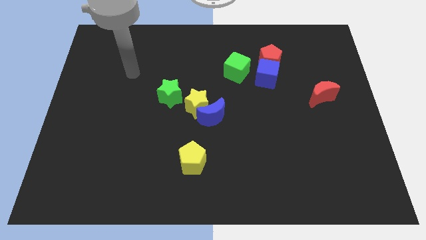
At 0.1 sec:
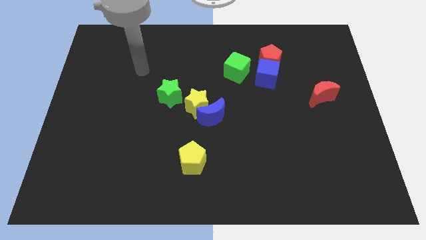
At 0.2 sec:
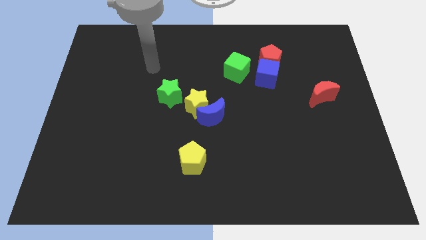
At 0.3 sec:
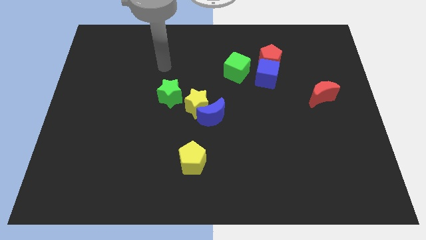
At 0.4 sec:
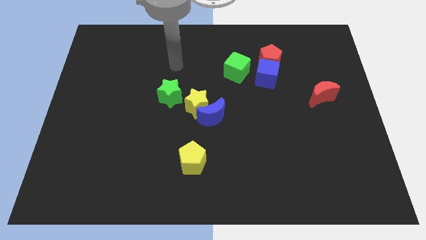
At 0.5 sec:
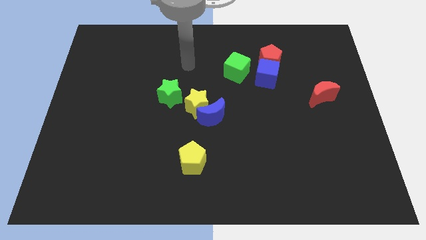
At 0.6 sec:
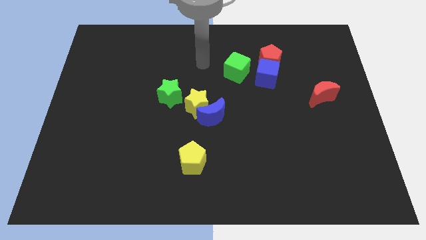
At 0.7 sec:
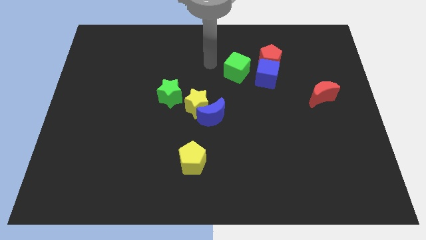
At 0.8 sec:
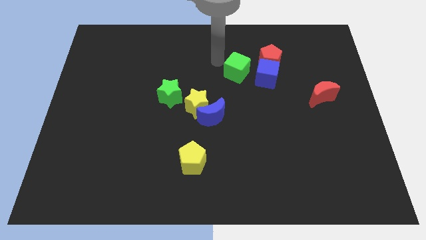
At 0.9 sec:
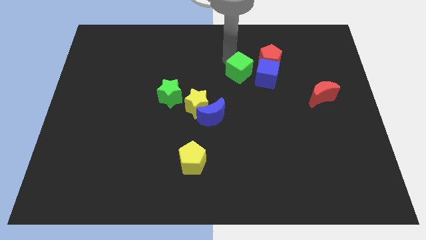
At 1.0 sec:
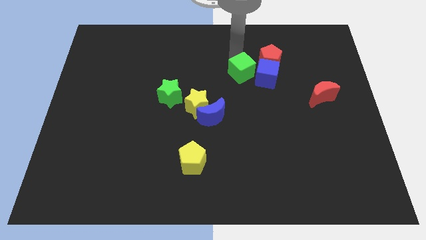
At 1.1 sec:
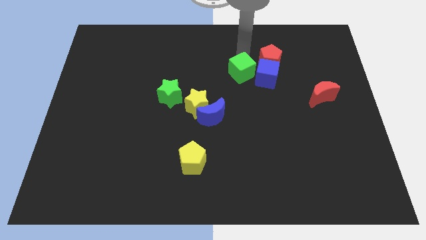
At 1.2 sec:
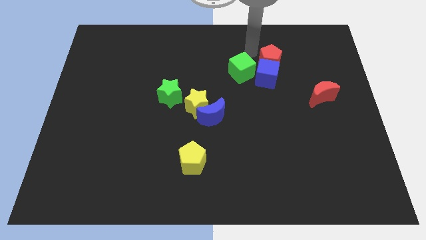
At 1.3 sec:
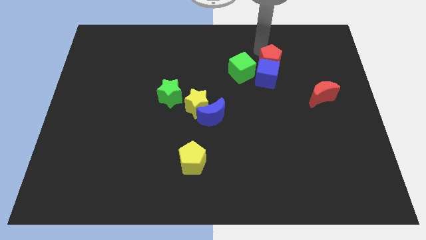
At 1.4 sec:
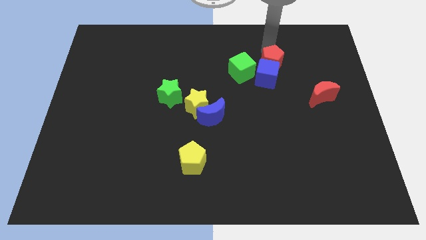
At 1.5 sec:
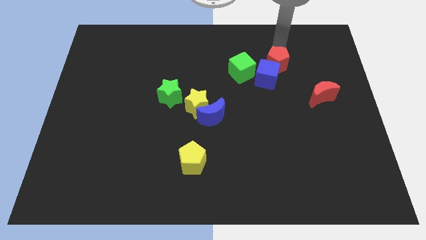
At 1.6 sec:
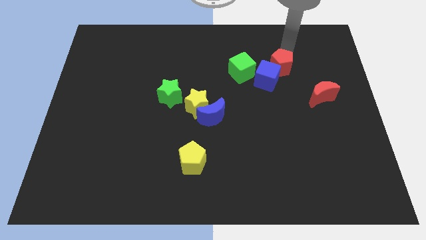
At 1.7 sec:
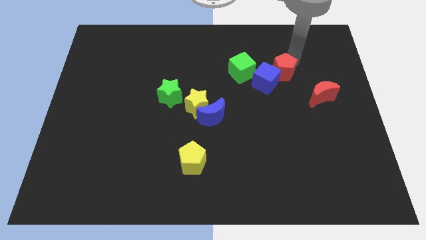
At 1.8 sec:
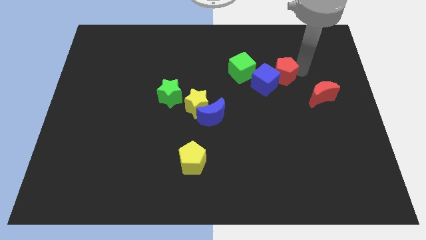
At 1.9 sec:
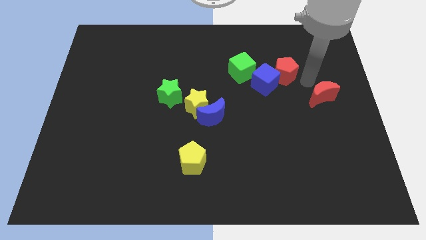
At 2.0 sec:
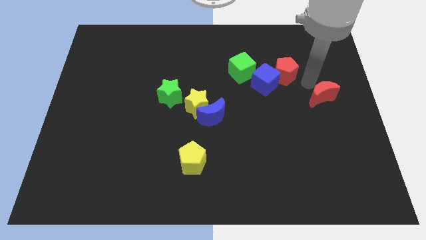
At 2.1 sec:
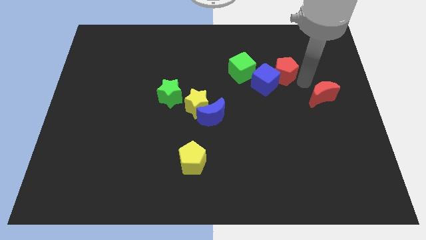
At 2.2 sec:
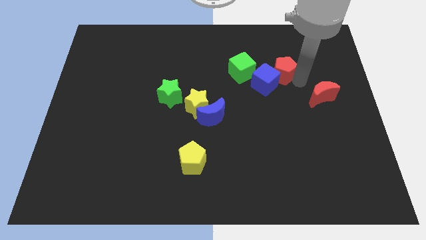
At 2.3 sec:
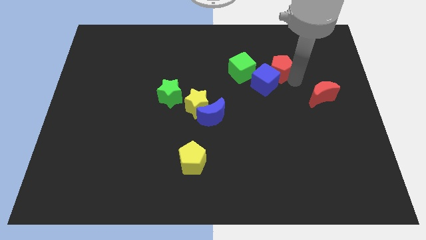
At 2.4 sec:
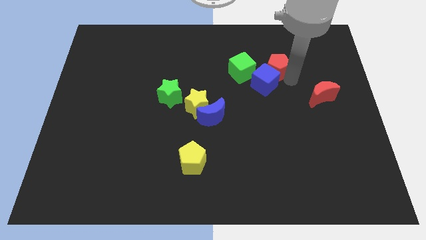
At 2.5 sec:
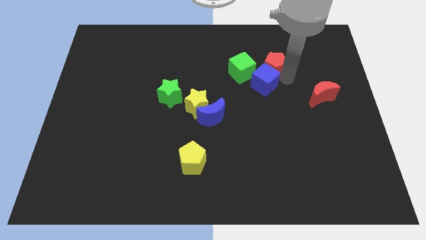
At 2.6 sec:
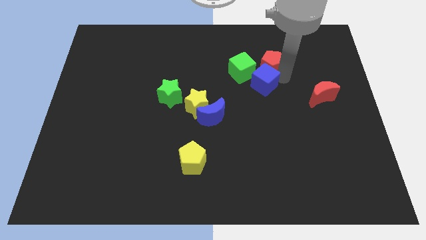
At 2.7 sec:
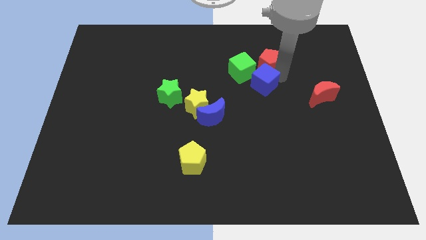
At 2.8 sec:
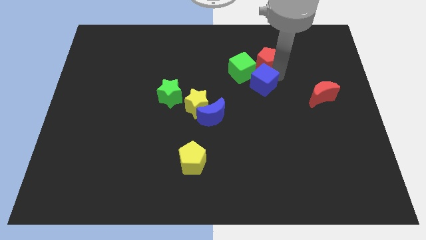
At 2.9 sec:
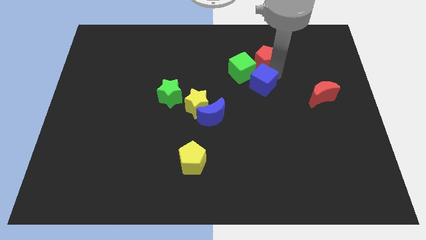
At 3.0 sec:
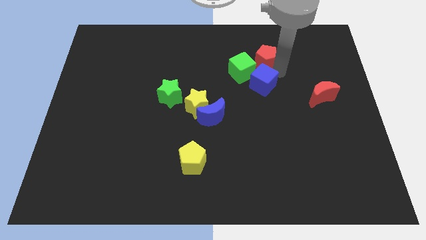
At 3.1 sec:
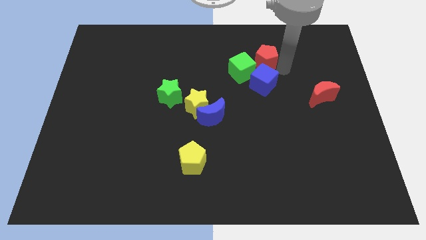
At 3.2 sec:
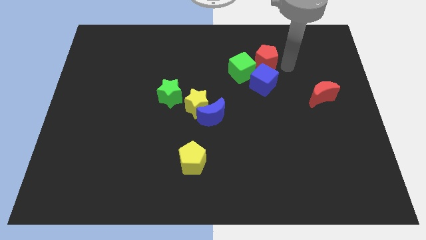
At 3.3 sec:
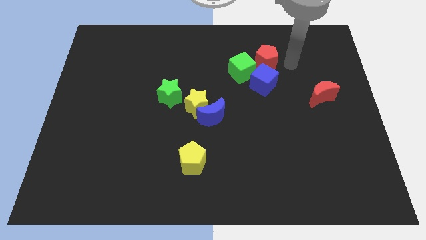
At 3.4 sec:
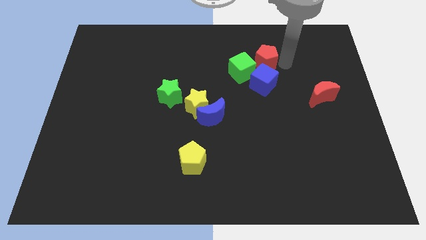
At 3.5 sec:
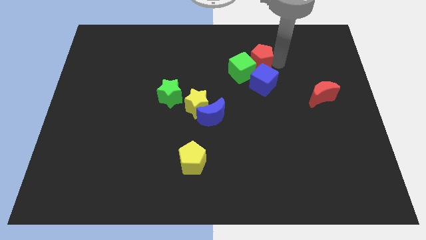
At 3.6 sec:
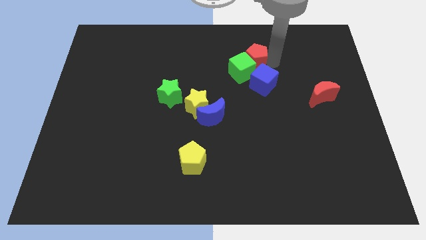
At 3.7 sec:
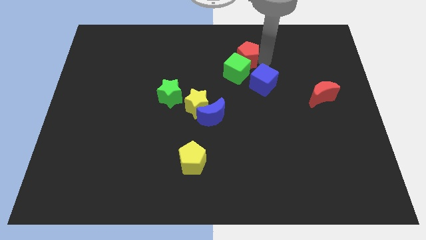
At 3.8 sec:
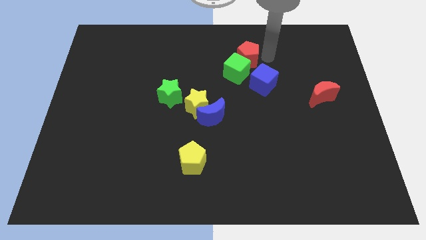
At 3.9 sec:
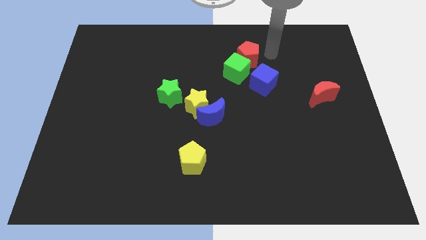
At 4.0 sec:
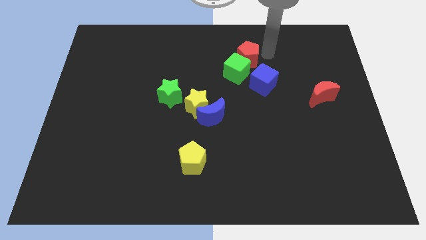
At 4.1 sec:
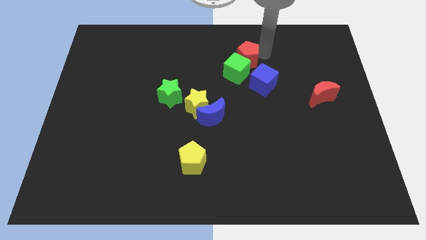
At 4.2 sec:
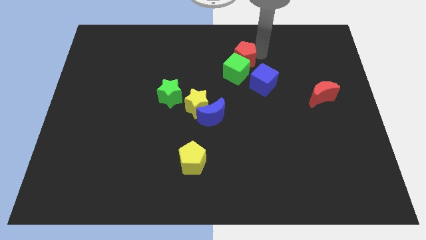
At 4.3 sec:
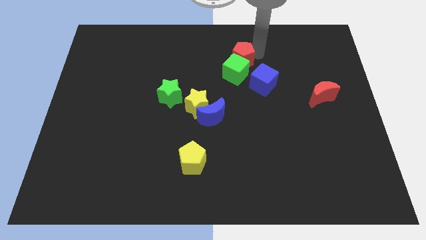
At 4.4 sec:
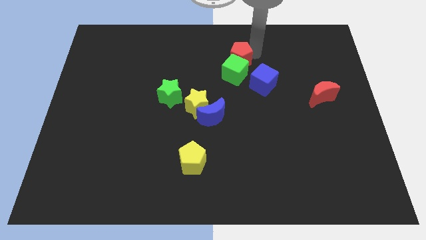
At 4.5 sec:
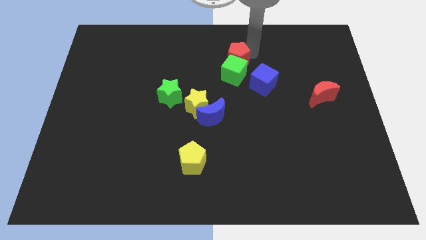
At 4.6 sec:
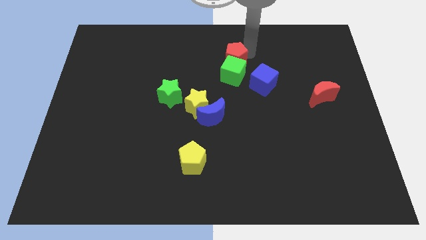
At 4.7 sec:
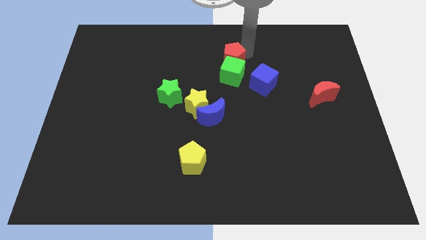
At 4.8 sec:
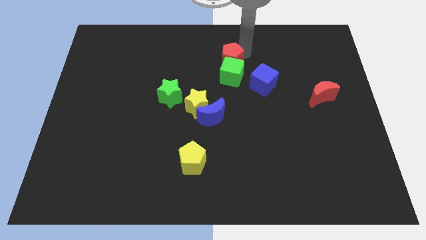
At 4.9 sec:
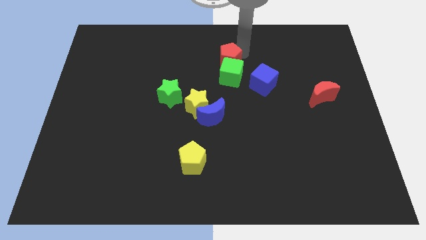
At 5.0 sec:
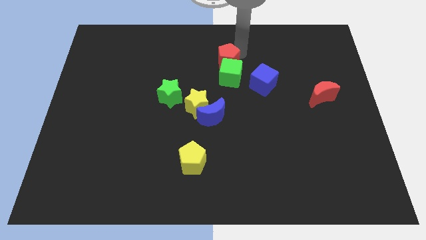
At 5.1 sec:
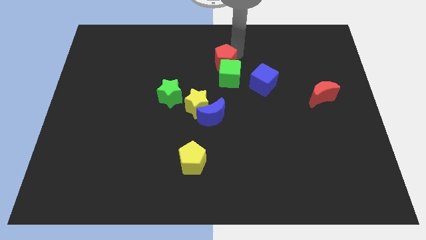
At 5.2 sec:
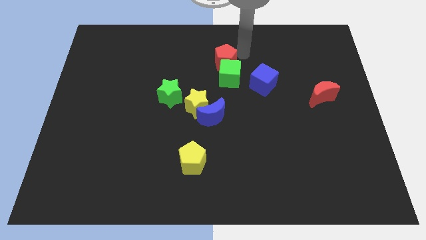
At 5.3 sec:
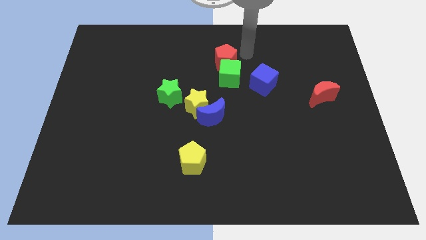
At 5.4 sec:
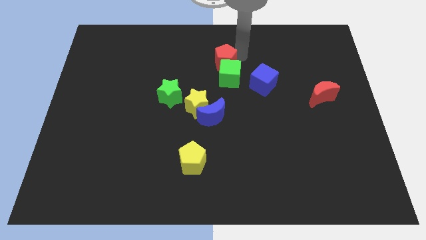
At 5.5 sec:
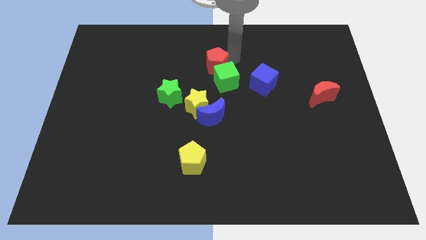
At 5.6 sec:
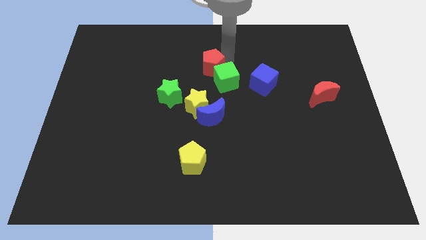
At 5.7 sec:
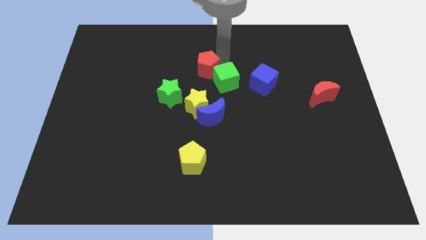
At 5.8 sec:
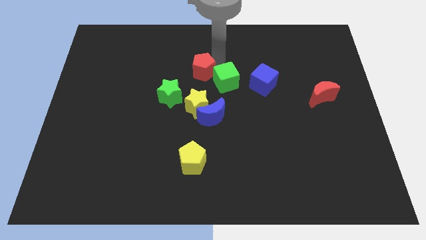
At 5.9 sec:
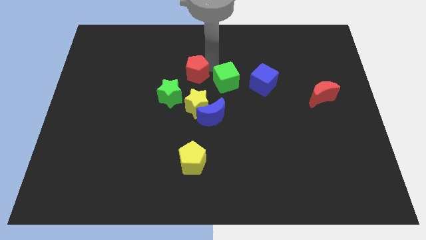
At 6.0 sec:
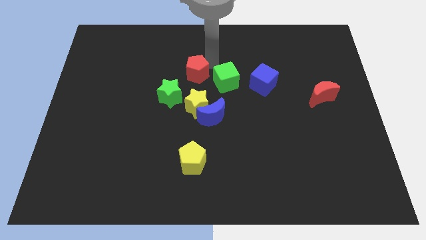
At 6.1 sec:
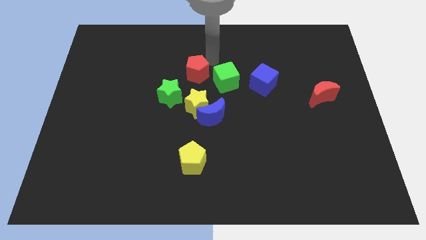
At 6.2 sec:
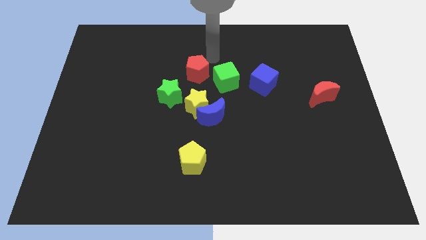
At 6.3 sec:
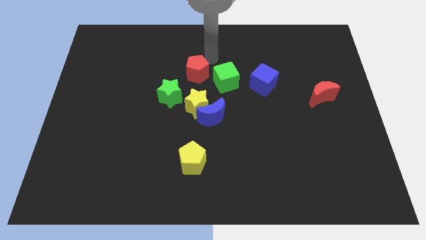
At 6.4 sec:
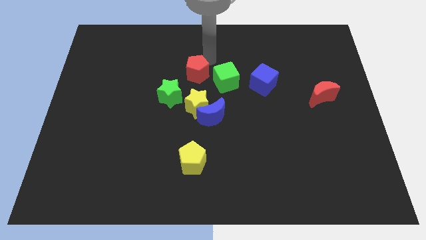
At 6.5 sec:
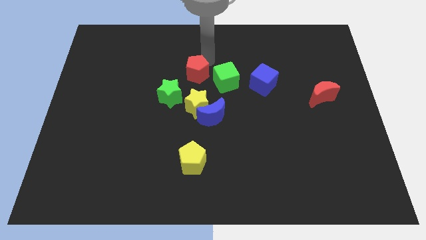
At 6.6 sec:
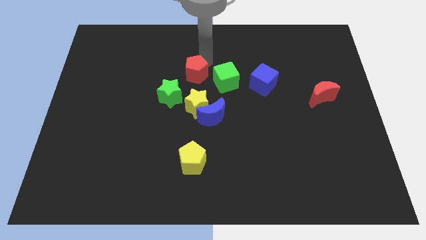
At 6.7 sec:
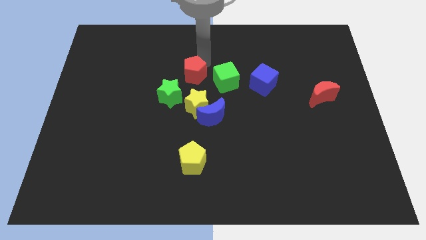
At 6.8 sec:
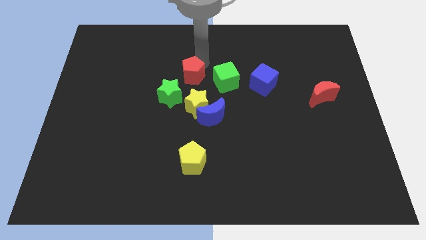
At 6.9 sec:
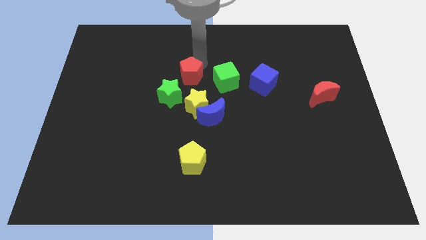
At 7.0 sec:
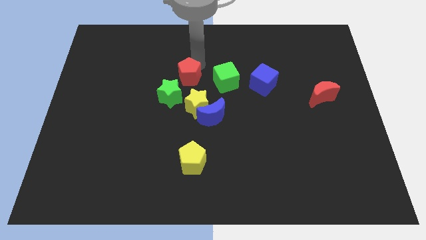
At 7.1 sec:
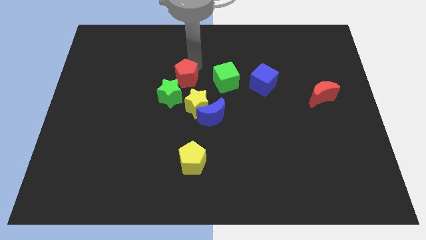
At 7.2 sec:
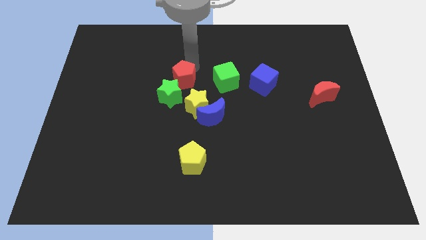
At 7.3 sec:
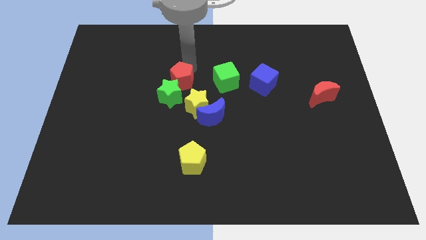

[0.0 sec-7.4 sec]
slide the red pentagon to the green star

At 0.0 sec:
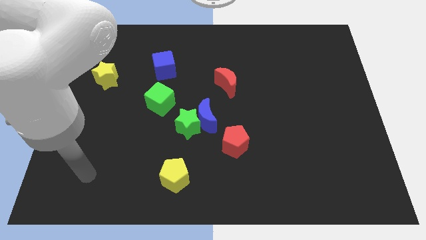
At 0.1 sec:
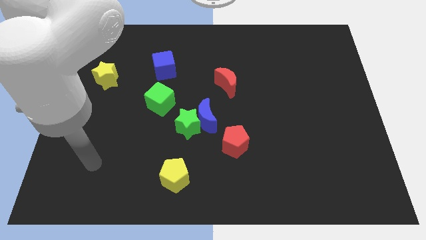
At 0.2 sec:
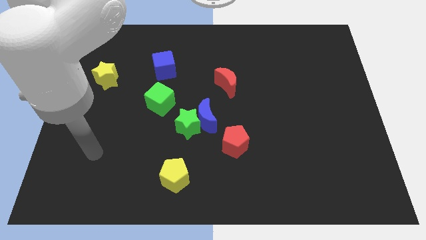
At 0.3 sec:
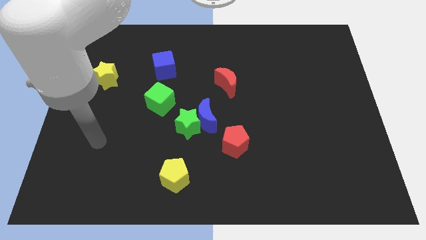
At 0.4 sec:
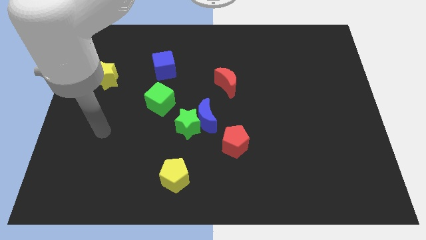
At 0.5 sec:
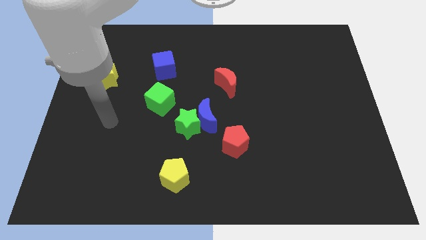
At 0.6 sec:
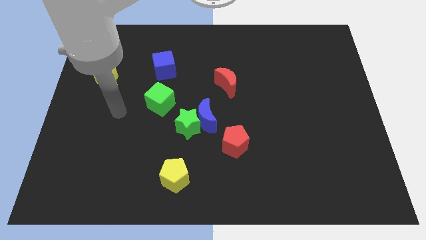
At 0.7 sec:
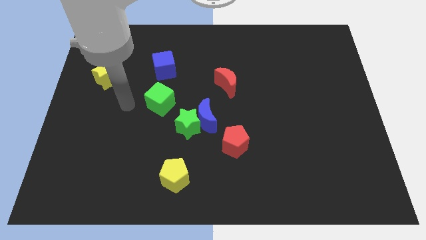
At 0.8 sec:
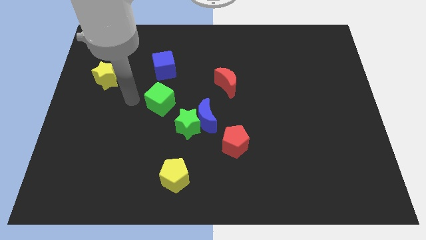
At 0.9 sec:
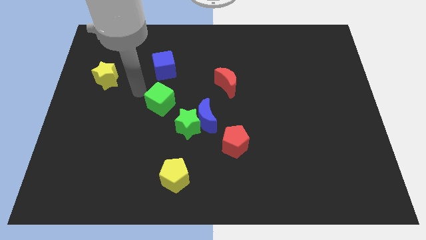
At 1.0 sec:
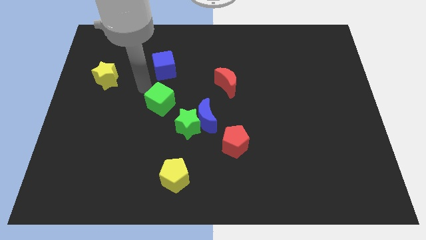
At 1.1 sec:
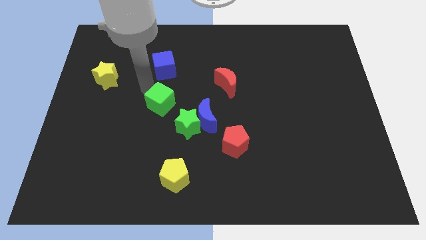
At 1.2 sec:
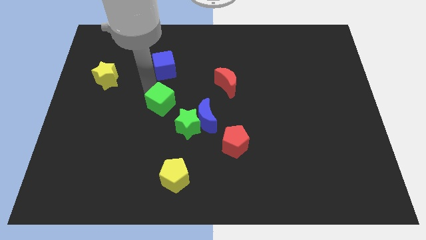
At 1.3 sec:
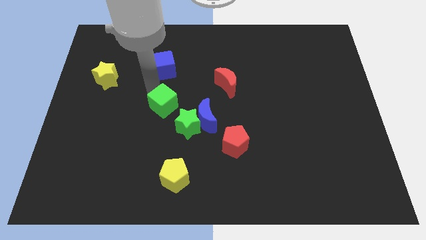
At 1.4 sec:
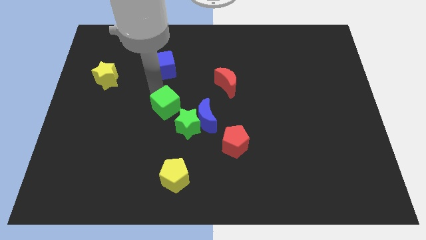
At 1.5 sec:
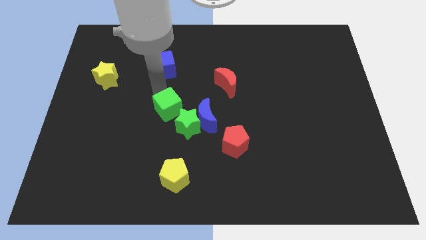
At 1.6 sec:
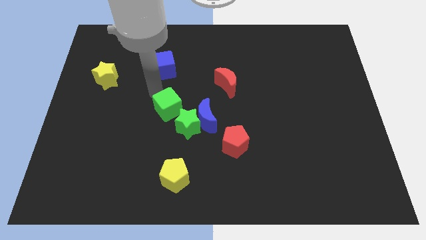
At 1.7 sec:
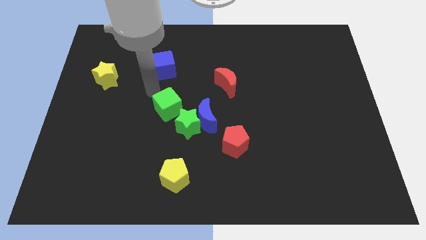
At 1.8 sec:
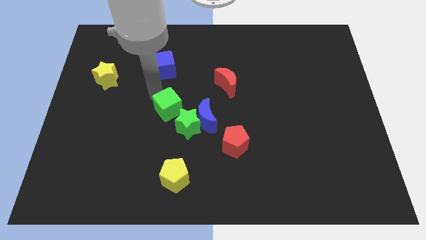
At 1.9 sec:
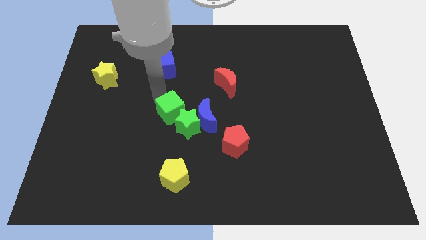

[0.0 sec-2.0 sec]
slide the green cube towards the green star
